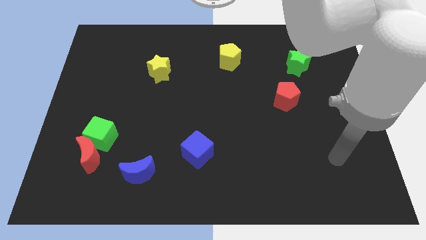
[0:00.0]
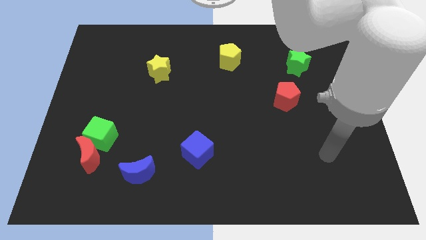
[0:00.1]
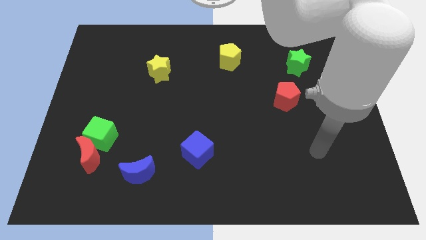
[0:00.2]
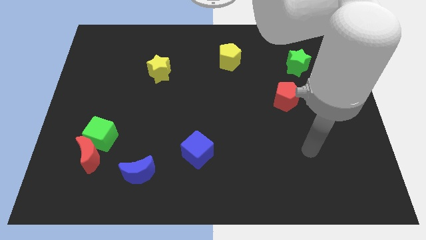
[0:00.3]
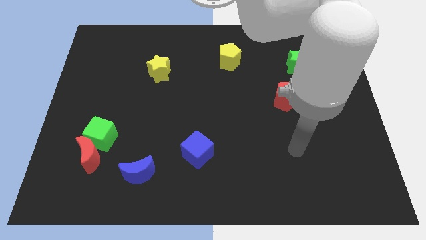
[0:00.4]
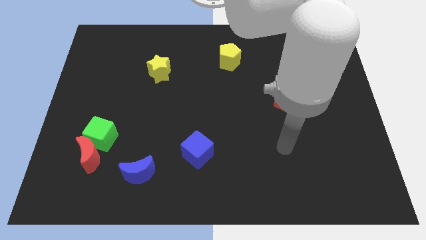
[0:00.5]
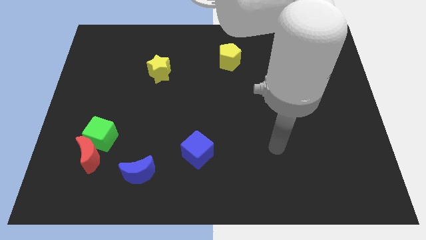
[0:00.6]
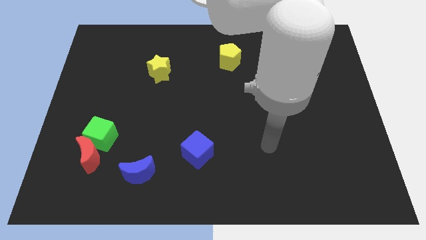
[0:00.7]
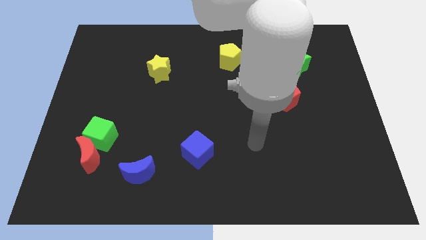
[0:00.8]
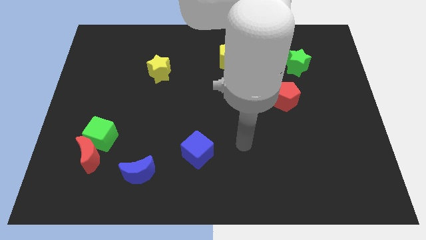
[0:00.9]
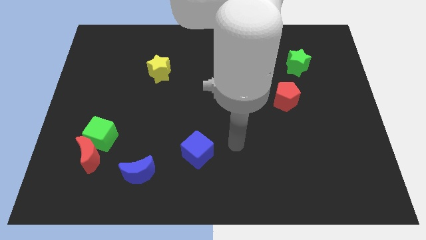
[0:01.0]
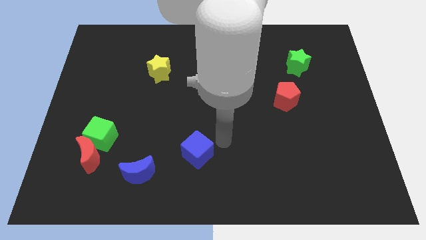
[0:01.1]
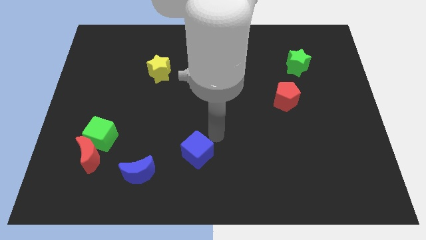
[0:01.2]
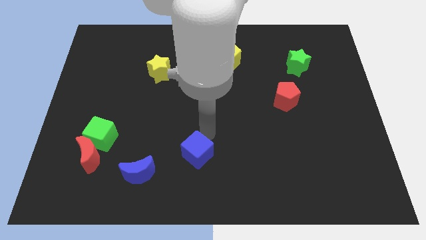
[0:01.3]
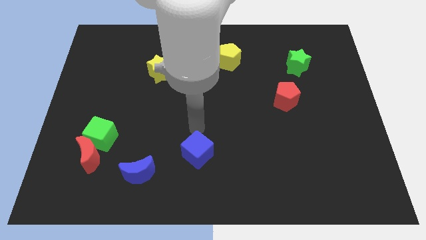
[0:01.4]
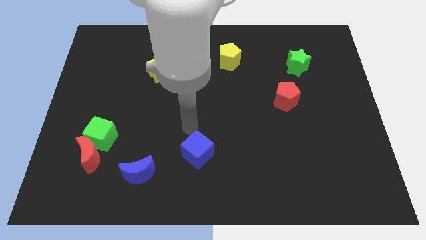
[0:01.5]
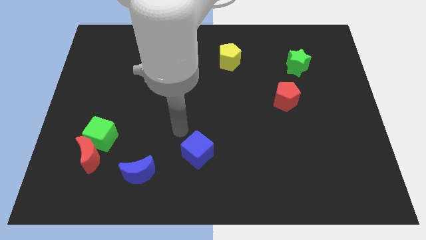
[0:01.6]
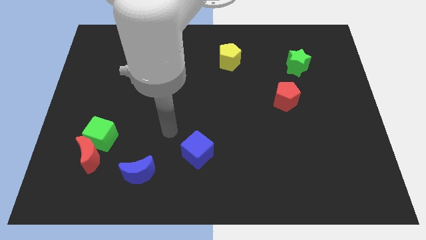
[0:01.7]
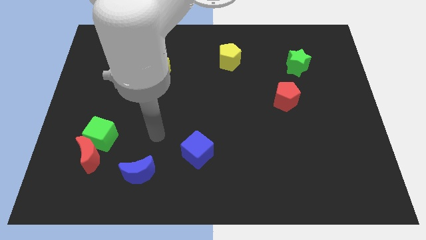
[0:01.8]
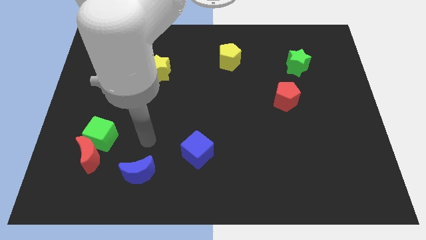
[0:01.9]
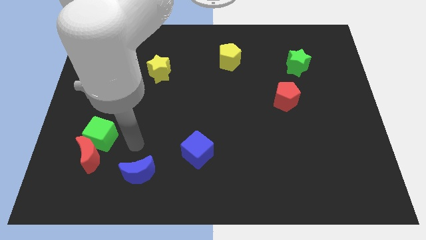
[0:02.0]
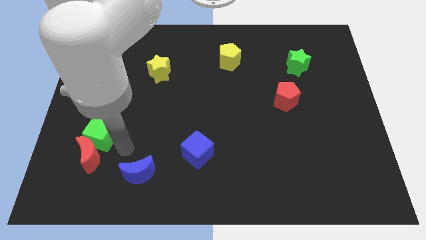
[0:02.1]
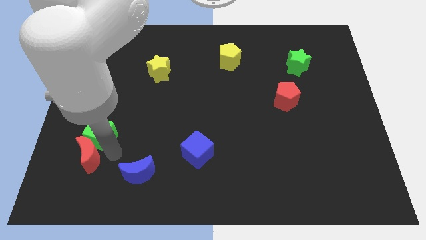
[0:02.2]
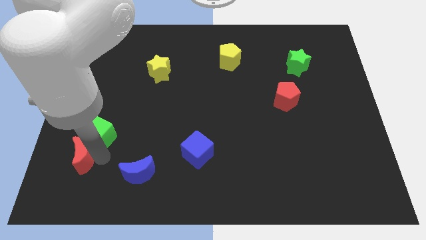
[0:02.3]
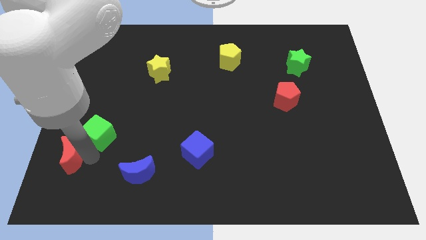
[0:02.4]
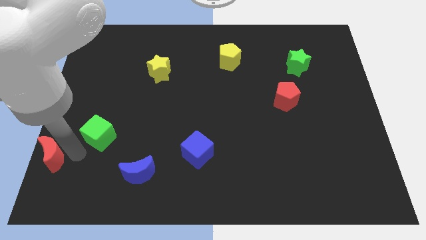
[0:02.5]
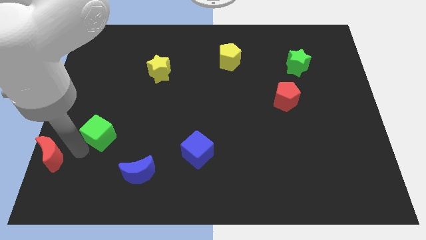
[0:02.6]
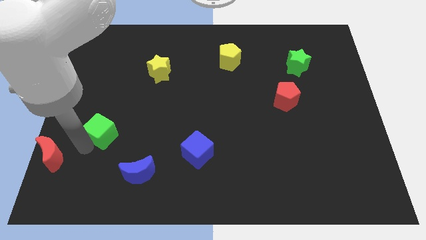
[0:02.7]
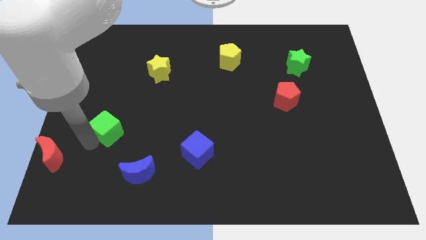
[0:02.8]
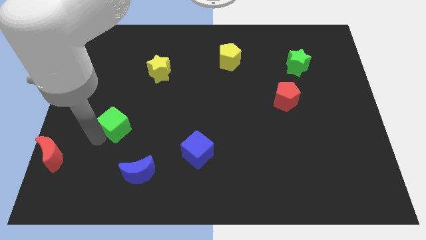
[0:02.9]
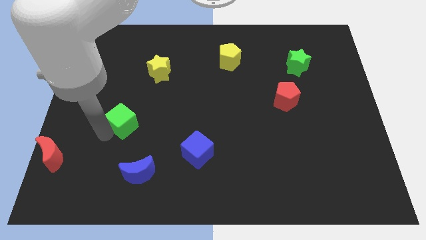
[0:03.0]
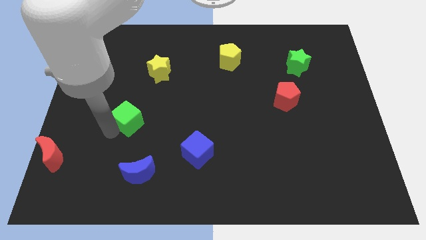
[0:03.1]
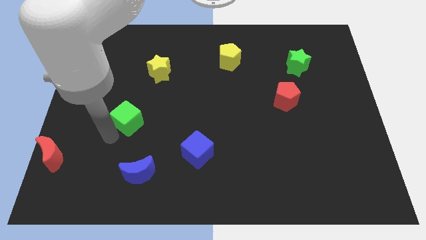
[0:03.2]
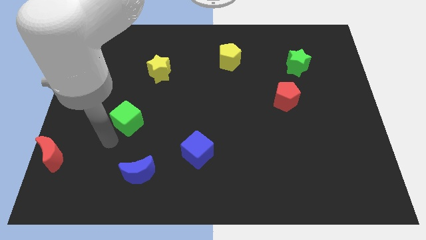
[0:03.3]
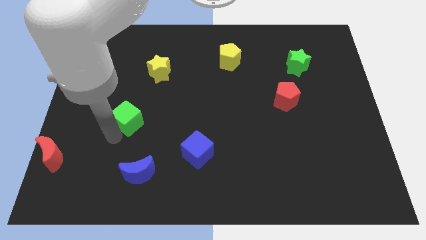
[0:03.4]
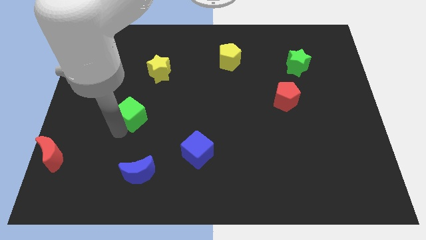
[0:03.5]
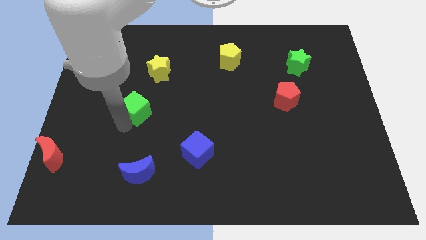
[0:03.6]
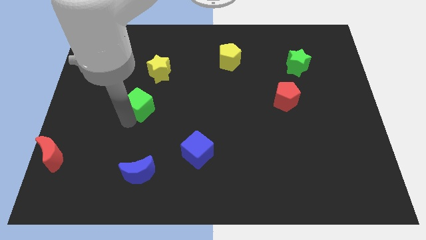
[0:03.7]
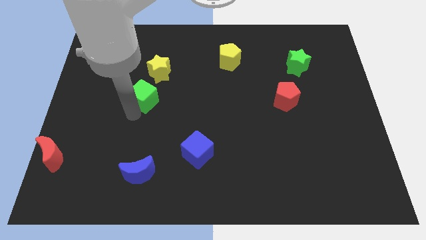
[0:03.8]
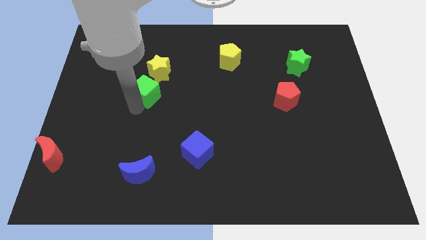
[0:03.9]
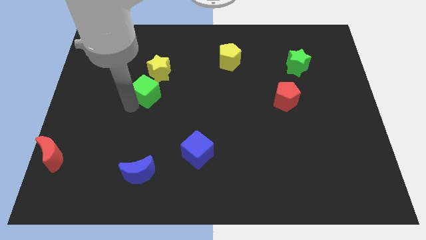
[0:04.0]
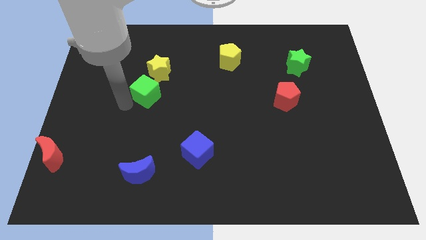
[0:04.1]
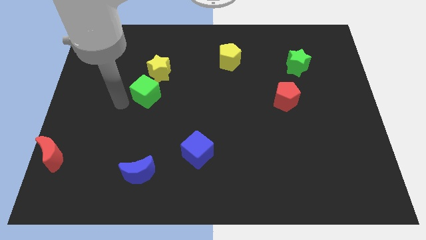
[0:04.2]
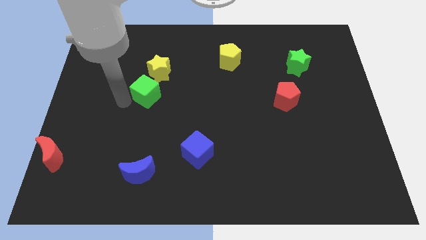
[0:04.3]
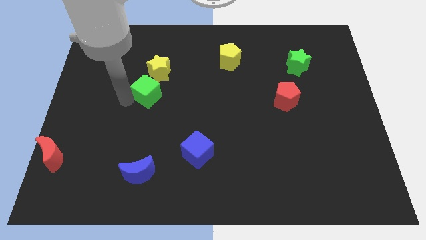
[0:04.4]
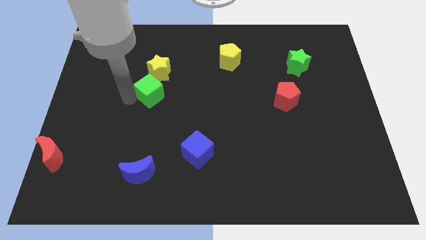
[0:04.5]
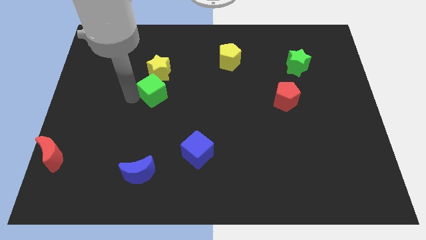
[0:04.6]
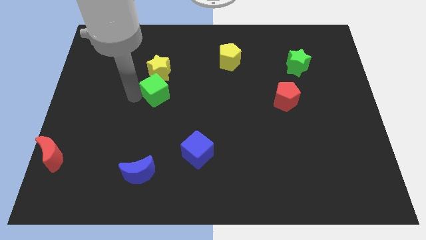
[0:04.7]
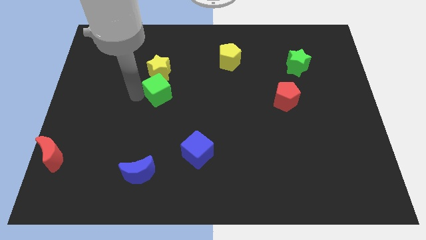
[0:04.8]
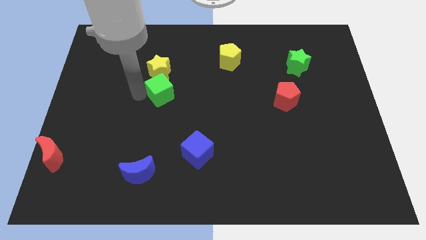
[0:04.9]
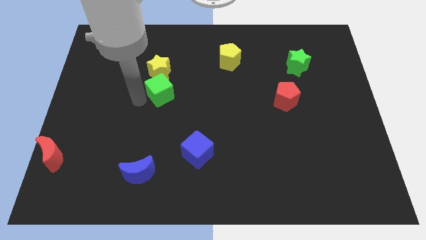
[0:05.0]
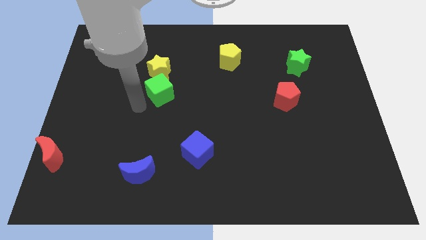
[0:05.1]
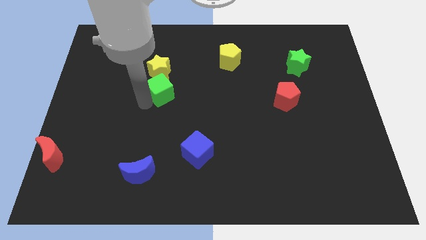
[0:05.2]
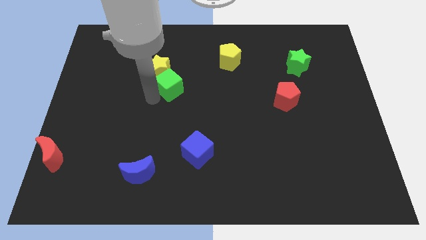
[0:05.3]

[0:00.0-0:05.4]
move the green cube up and to the right diagonally

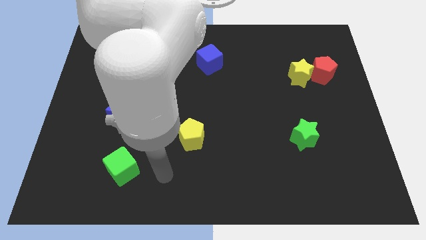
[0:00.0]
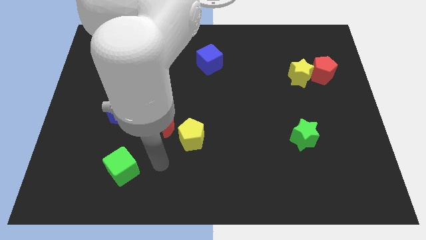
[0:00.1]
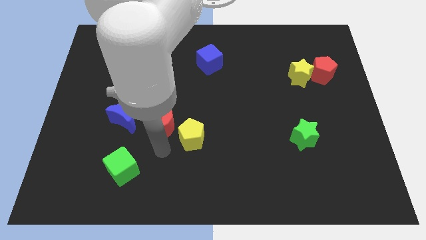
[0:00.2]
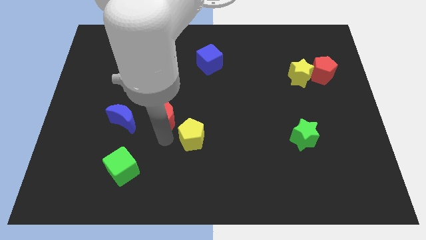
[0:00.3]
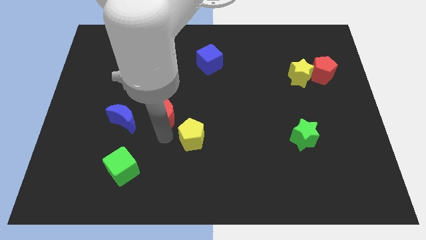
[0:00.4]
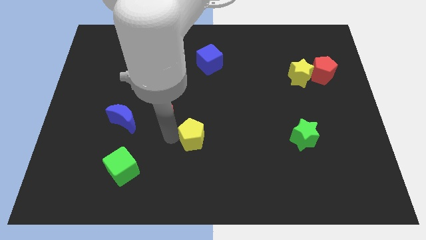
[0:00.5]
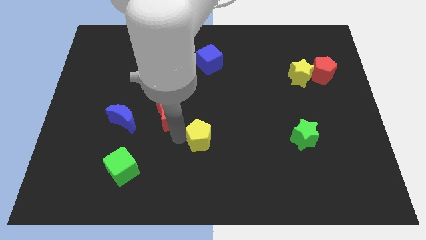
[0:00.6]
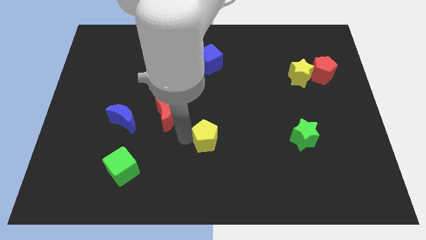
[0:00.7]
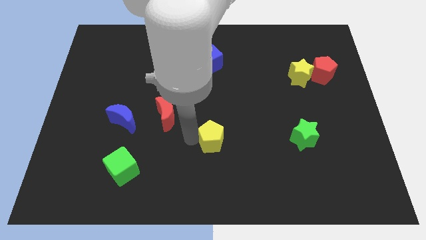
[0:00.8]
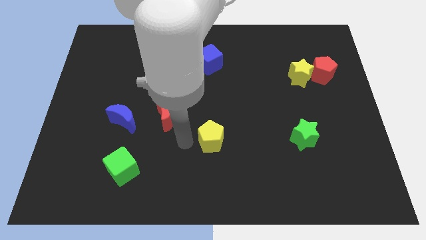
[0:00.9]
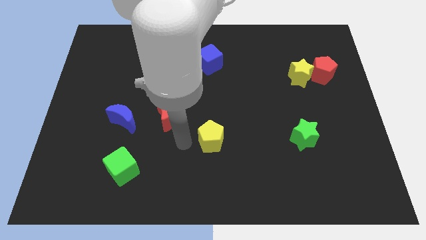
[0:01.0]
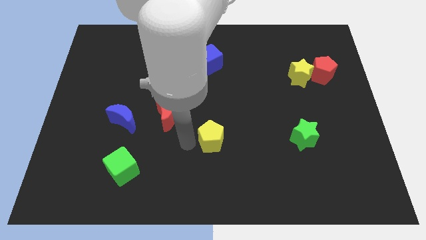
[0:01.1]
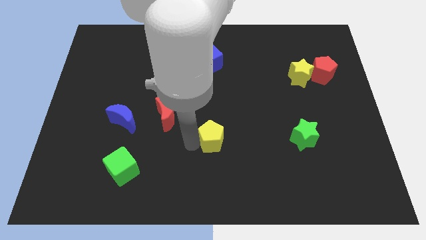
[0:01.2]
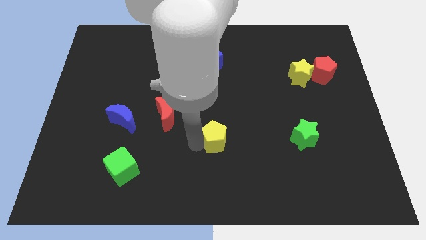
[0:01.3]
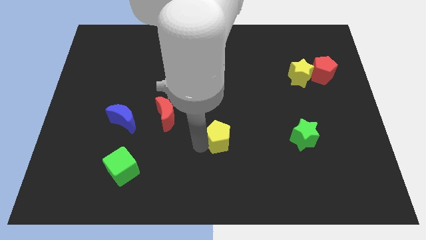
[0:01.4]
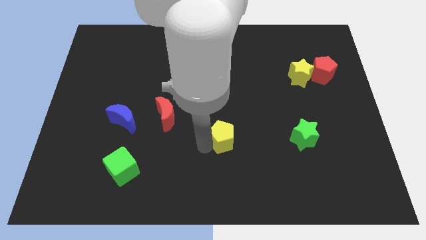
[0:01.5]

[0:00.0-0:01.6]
move the yellow pentagon a little right

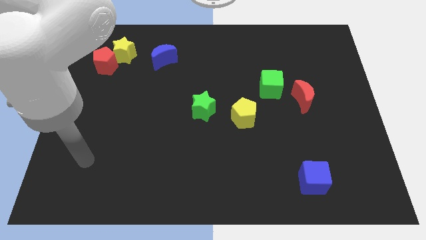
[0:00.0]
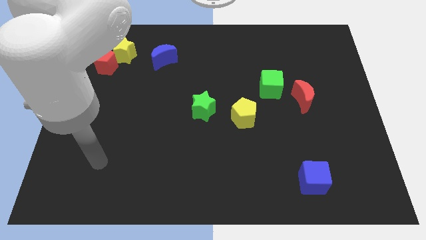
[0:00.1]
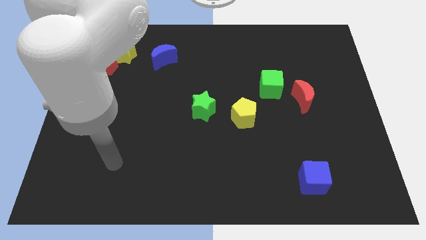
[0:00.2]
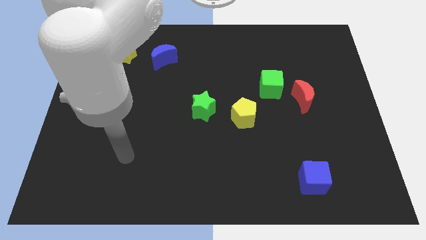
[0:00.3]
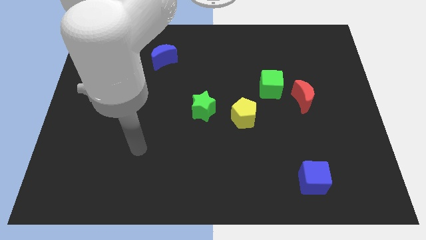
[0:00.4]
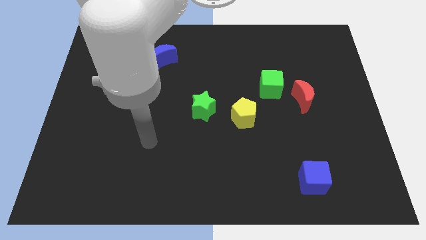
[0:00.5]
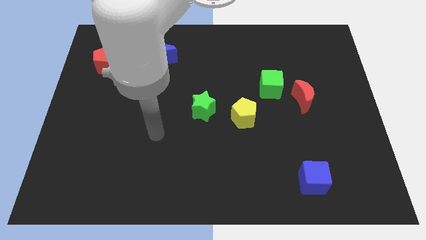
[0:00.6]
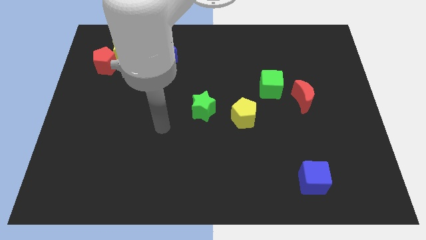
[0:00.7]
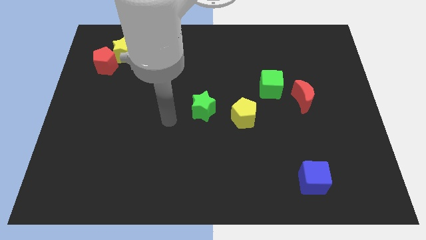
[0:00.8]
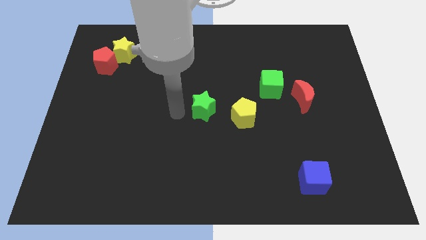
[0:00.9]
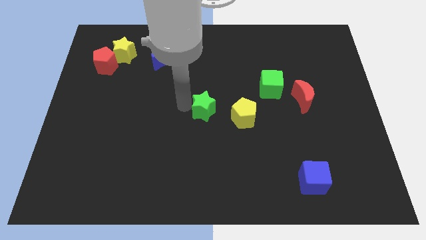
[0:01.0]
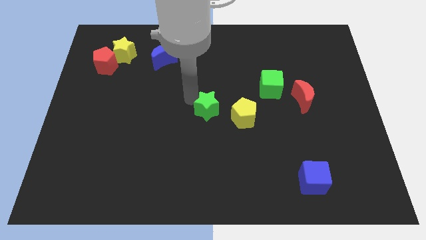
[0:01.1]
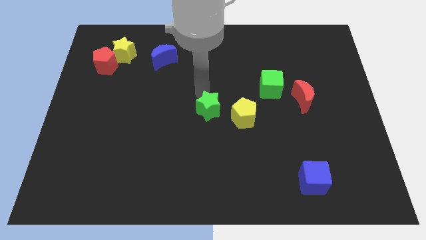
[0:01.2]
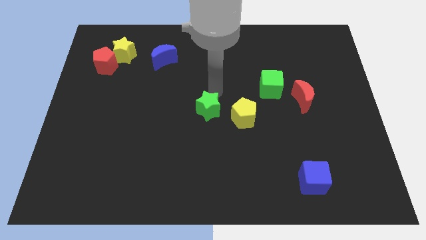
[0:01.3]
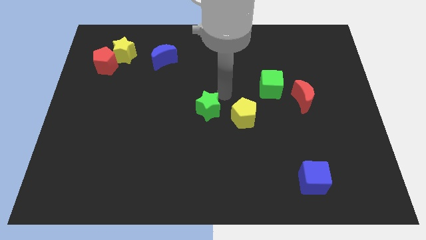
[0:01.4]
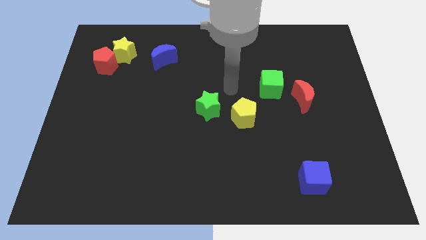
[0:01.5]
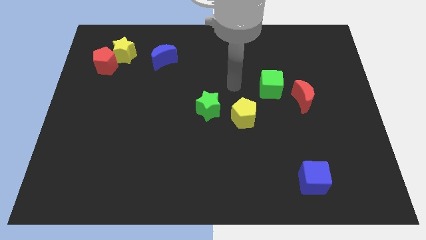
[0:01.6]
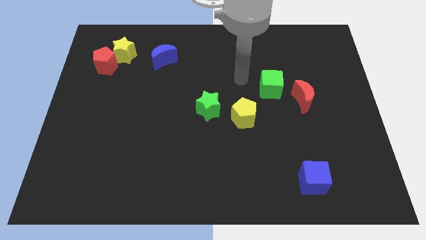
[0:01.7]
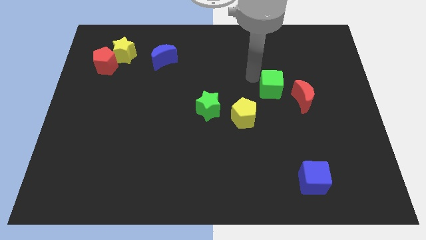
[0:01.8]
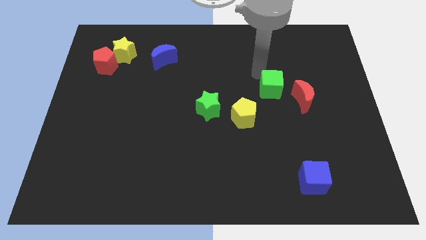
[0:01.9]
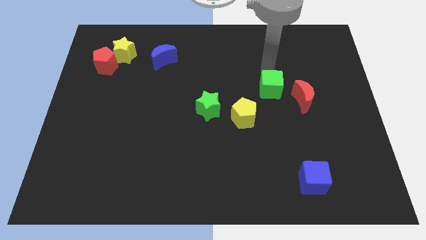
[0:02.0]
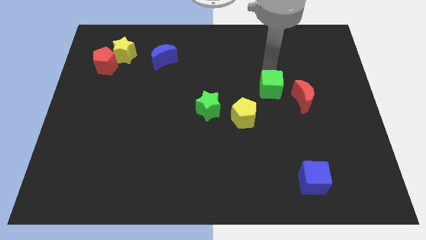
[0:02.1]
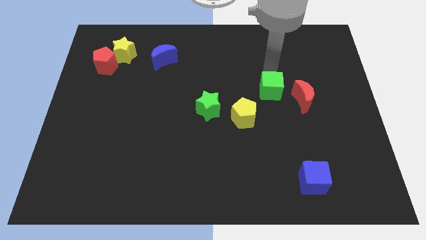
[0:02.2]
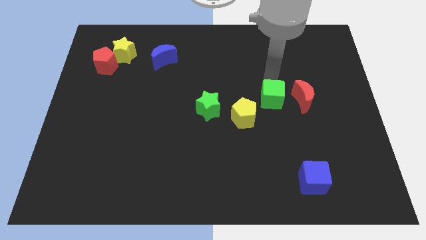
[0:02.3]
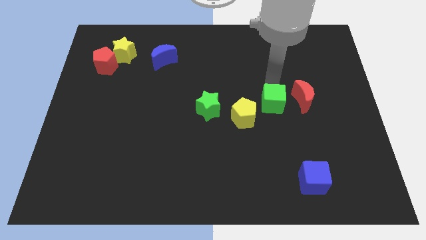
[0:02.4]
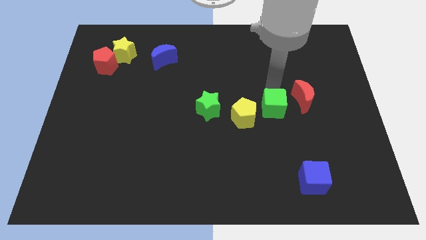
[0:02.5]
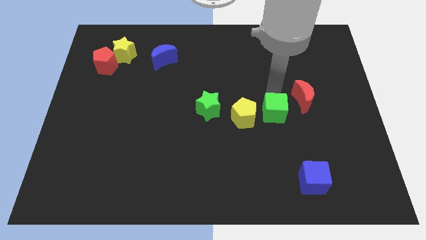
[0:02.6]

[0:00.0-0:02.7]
push the green cube down a little
